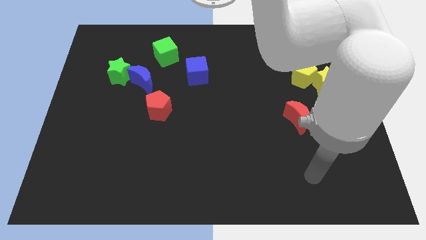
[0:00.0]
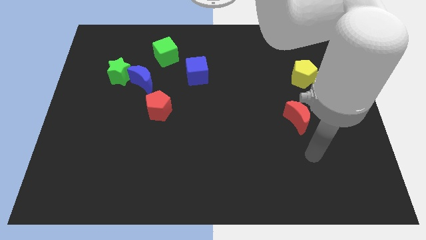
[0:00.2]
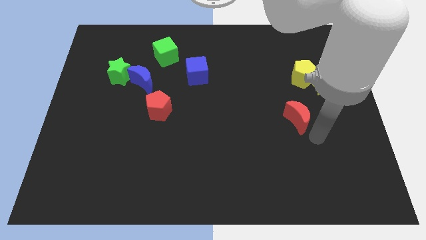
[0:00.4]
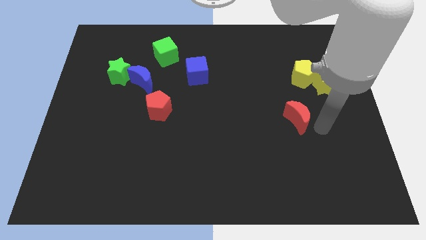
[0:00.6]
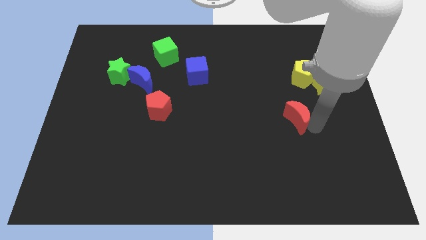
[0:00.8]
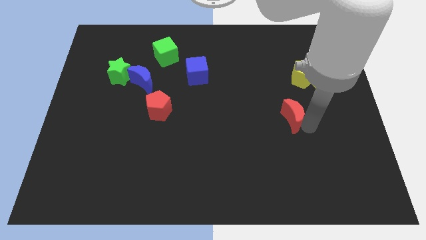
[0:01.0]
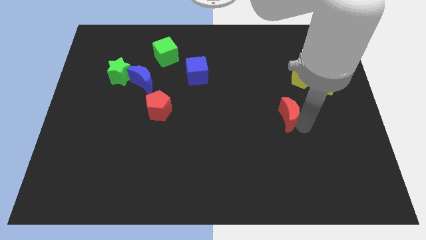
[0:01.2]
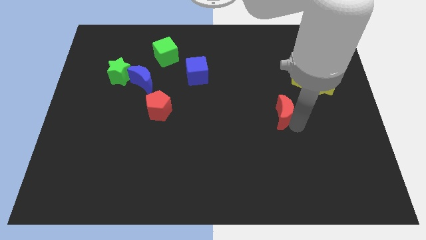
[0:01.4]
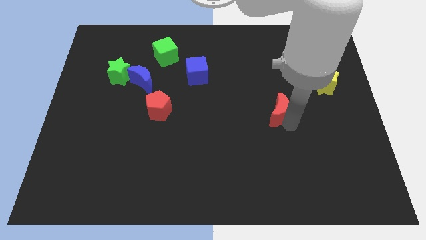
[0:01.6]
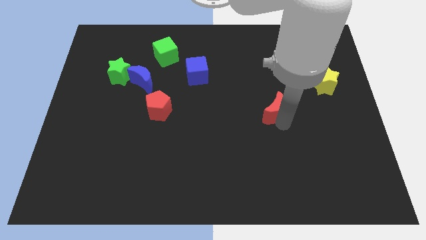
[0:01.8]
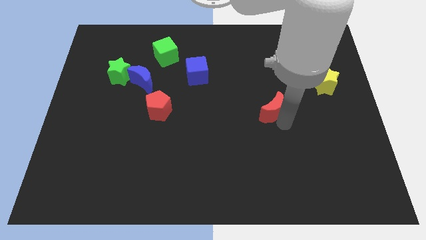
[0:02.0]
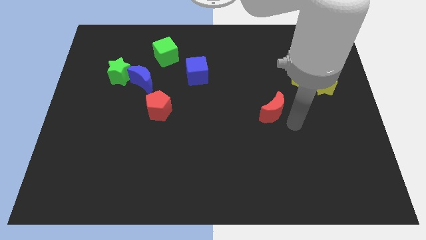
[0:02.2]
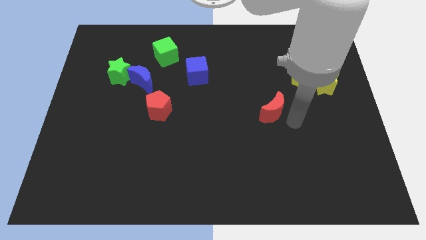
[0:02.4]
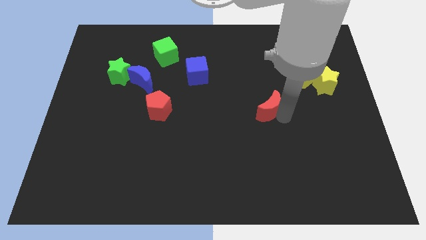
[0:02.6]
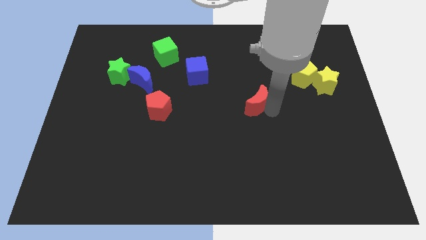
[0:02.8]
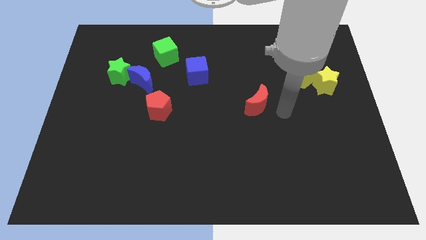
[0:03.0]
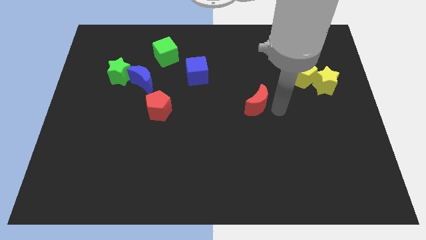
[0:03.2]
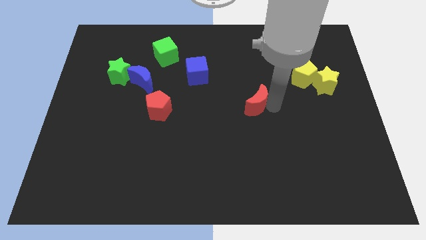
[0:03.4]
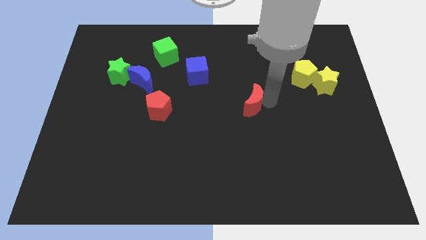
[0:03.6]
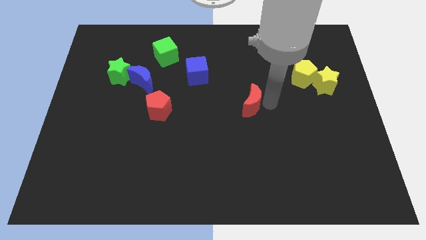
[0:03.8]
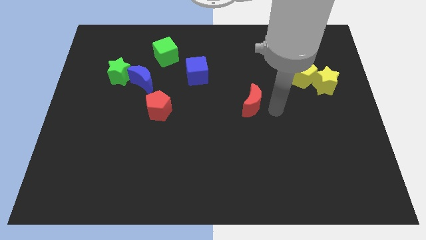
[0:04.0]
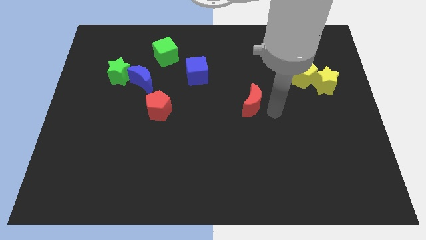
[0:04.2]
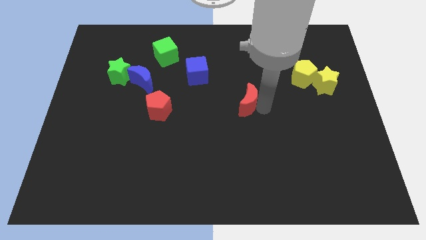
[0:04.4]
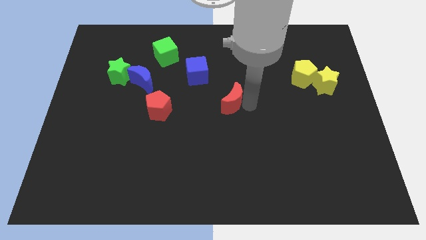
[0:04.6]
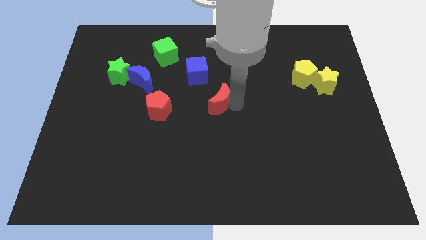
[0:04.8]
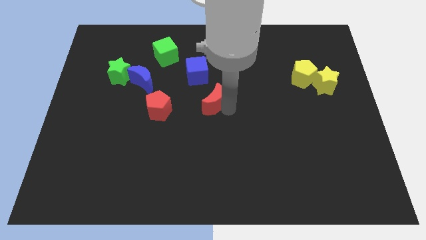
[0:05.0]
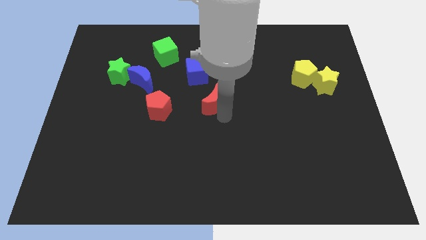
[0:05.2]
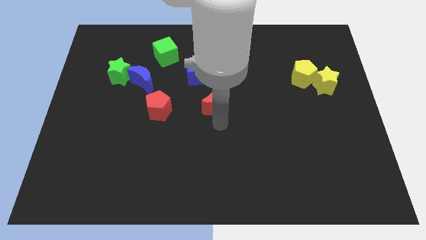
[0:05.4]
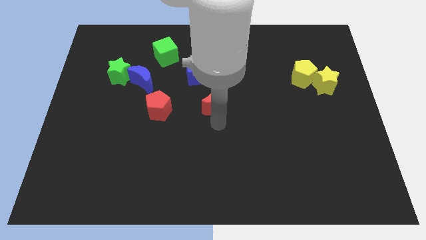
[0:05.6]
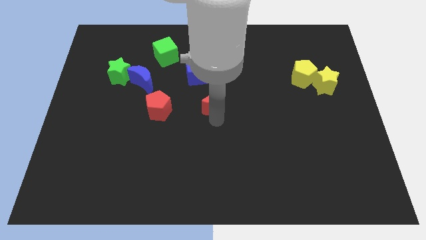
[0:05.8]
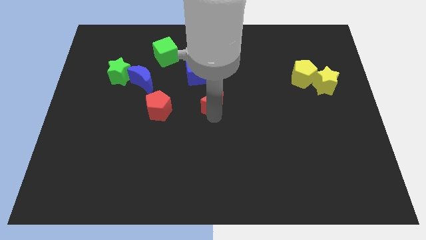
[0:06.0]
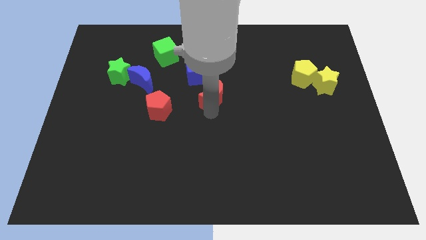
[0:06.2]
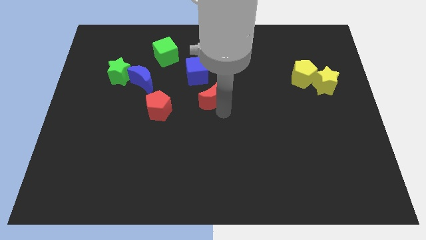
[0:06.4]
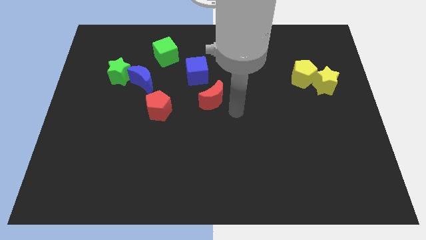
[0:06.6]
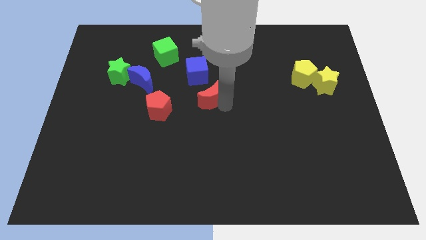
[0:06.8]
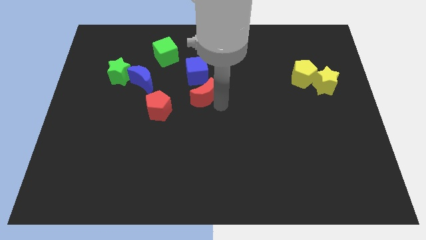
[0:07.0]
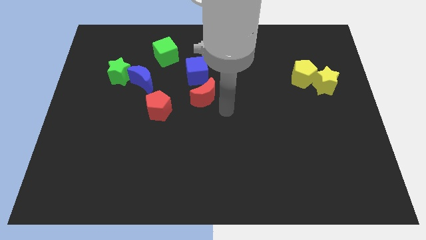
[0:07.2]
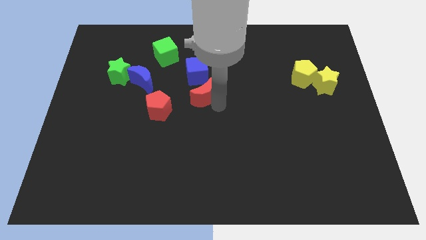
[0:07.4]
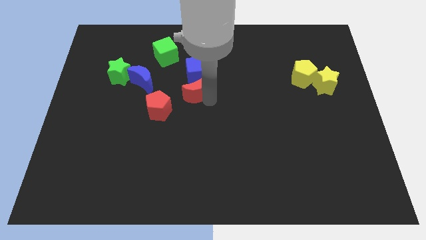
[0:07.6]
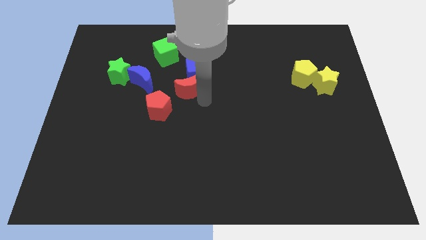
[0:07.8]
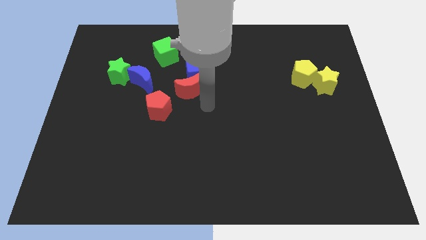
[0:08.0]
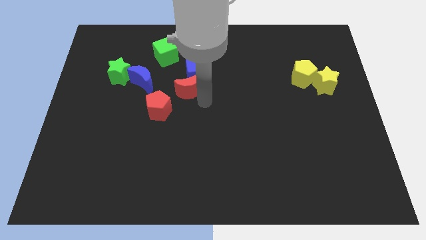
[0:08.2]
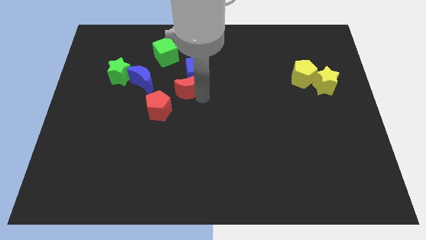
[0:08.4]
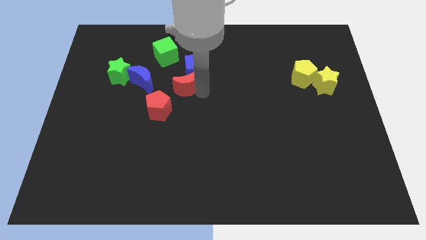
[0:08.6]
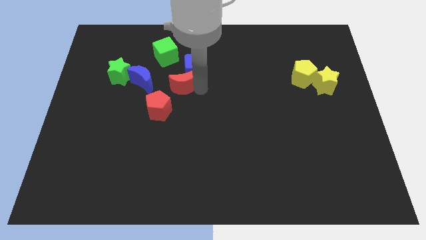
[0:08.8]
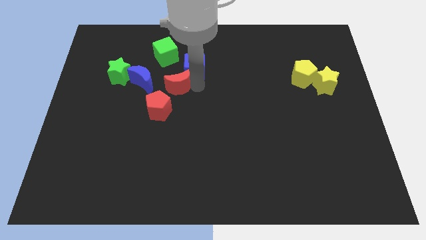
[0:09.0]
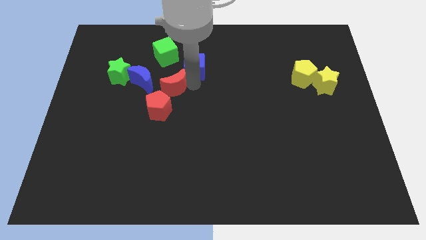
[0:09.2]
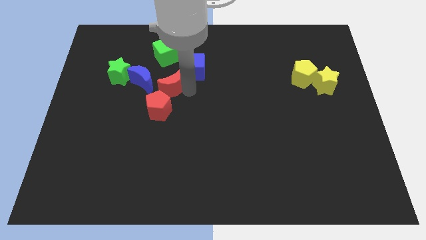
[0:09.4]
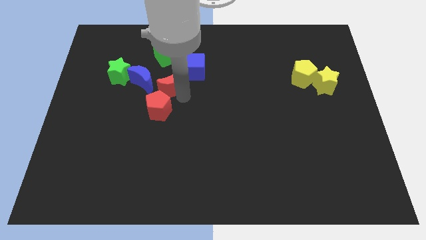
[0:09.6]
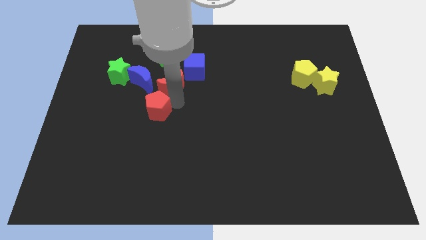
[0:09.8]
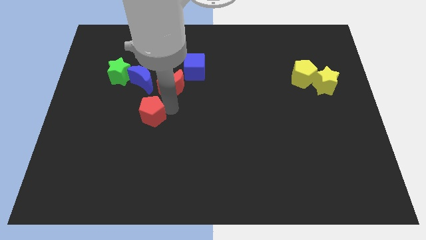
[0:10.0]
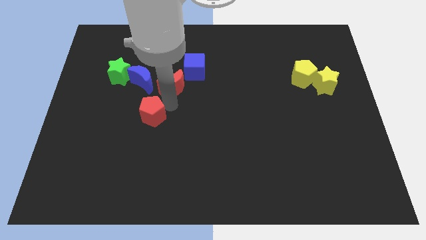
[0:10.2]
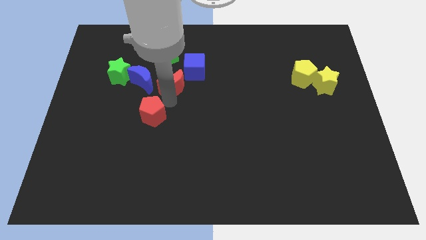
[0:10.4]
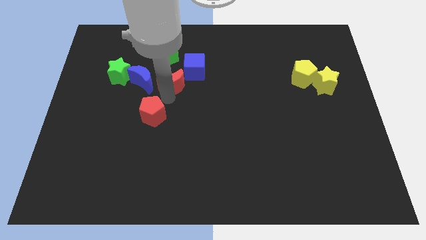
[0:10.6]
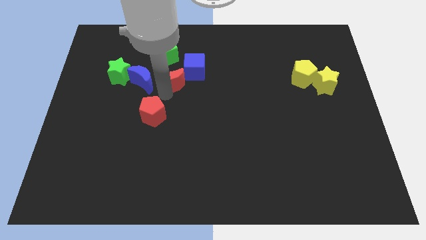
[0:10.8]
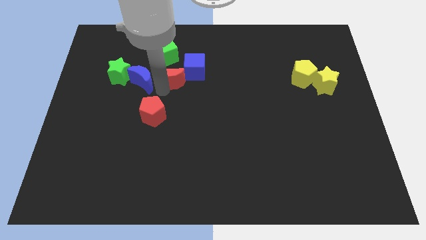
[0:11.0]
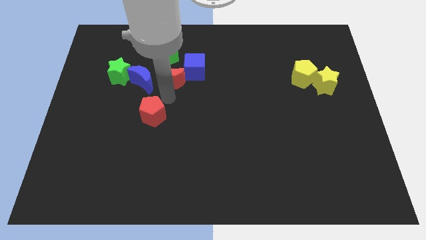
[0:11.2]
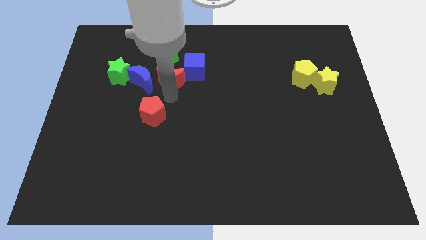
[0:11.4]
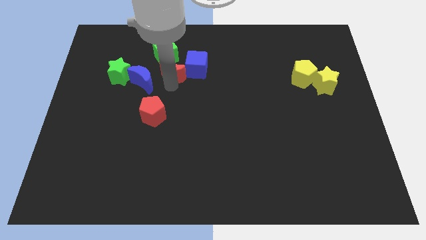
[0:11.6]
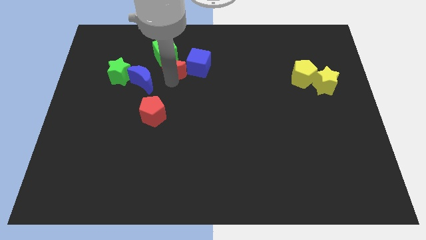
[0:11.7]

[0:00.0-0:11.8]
slide the red moon to the green cube
